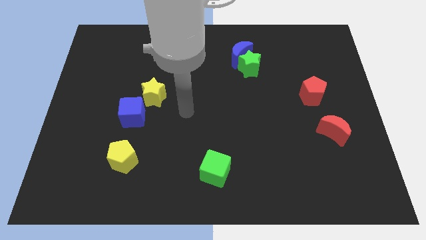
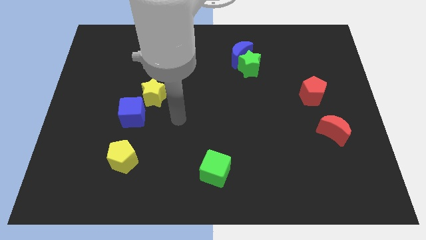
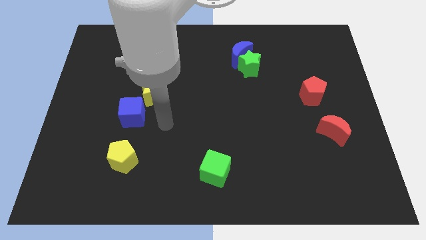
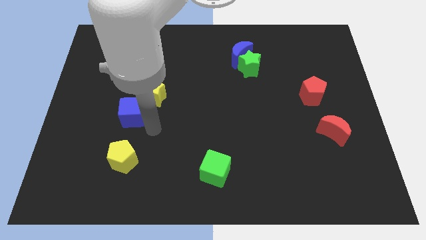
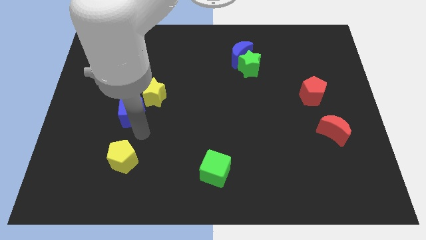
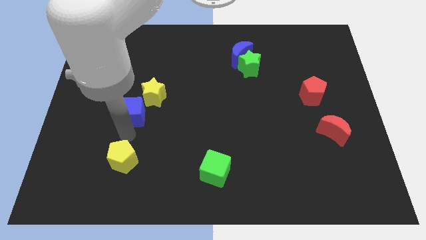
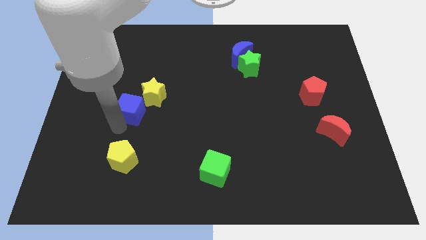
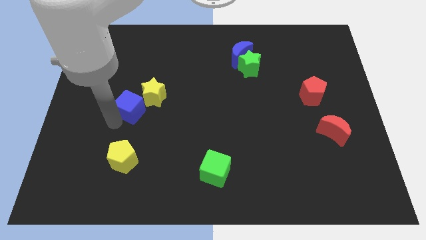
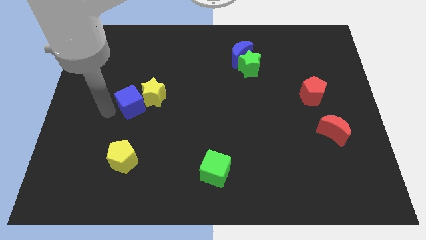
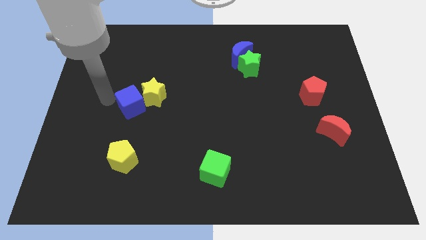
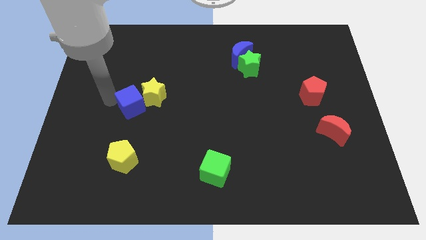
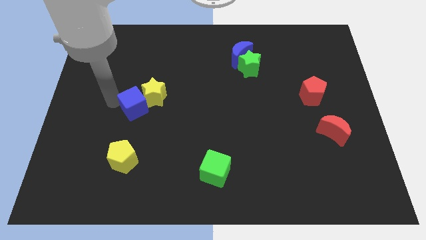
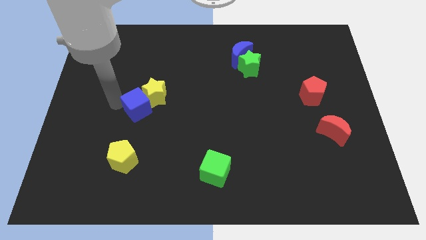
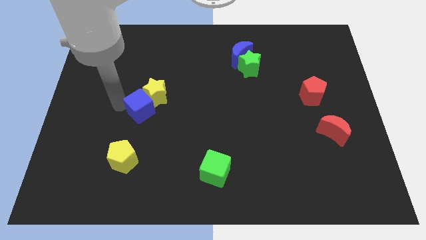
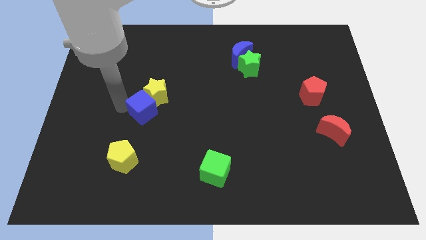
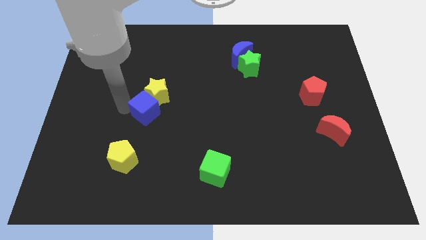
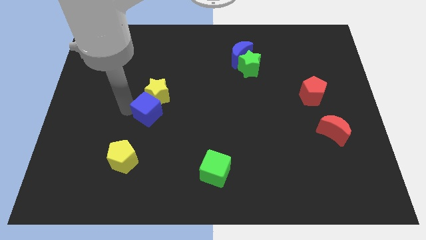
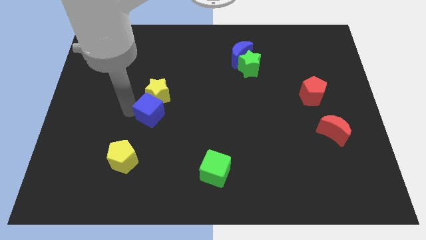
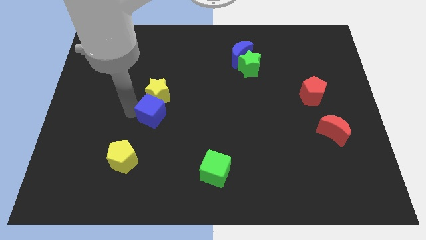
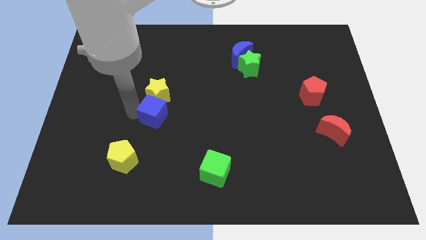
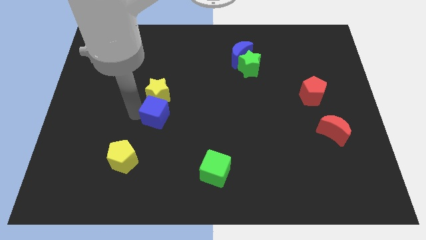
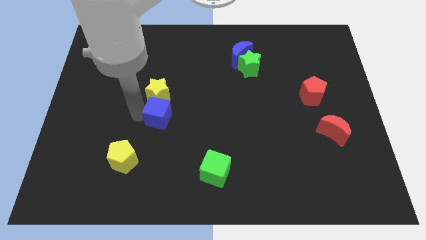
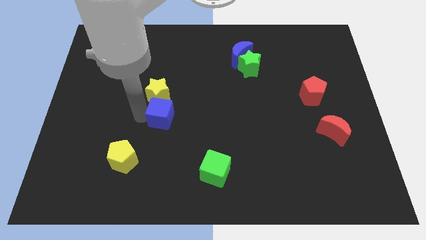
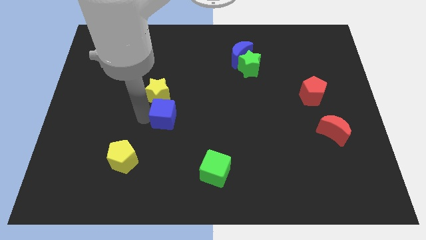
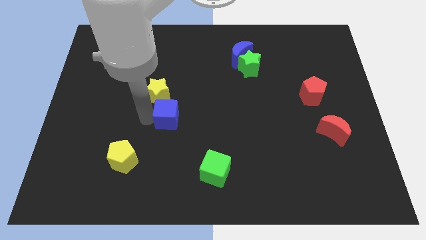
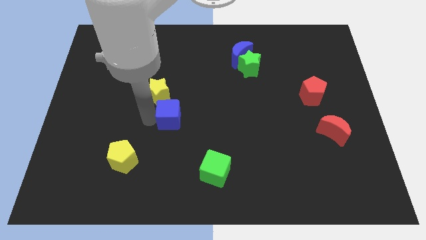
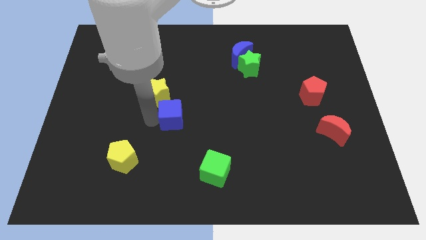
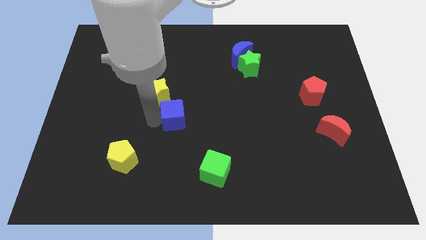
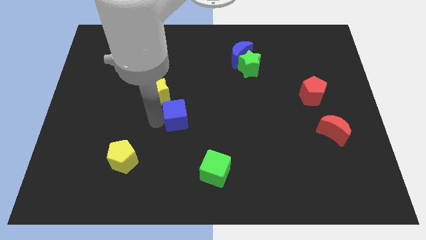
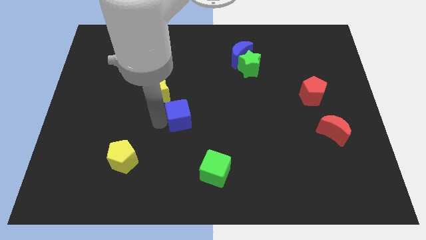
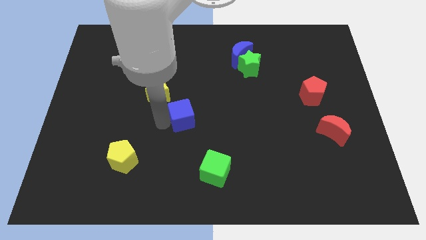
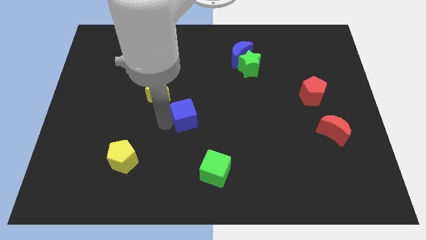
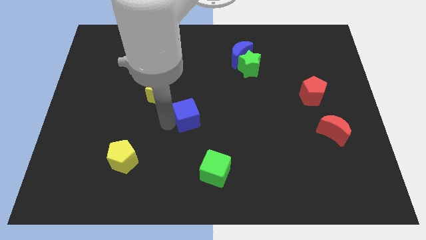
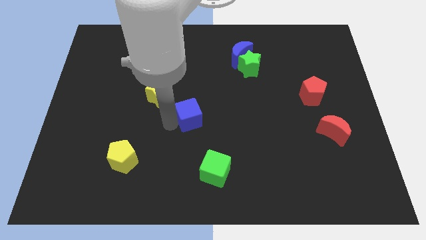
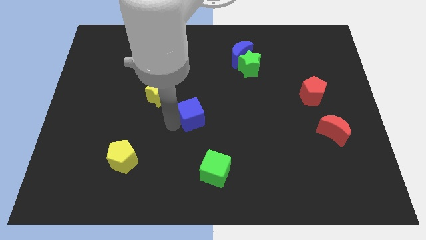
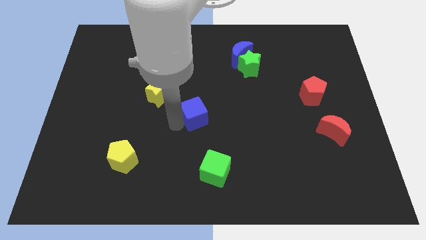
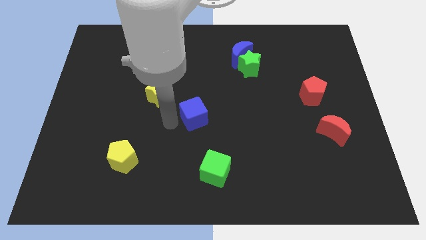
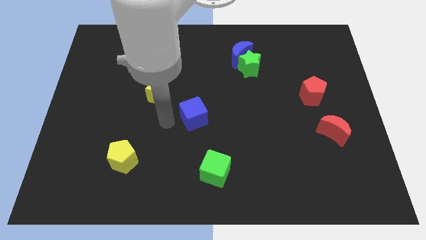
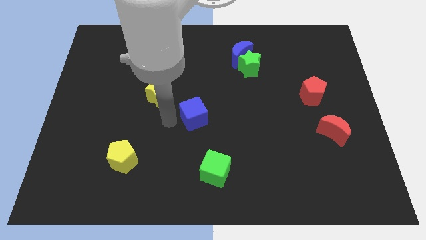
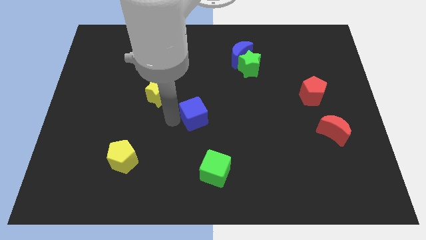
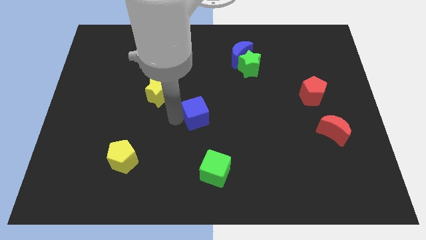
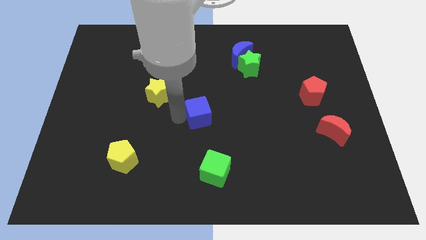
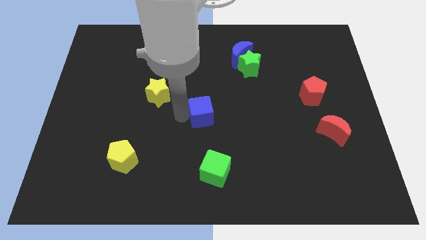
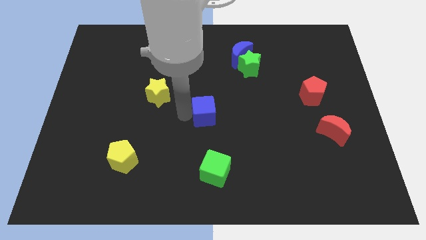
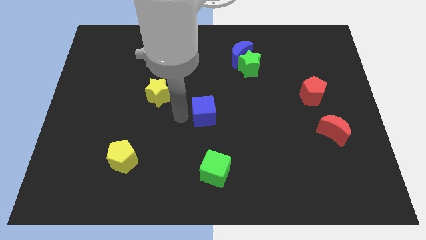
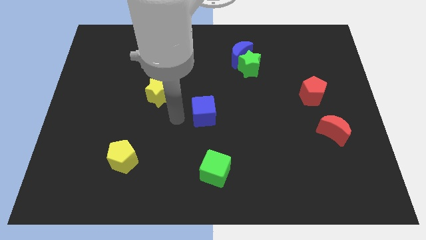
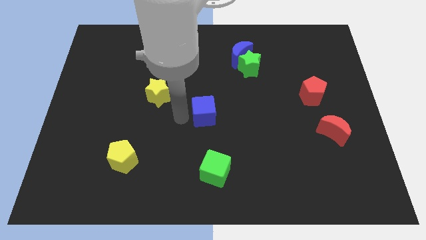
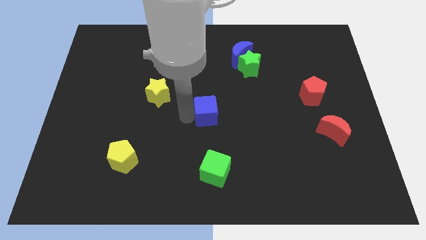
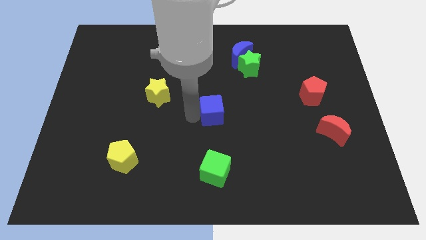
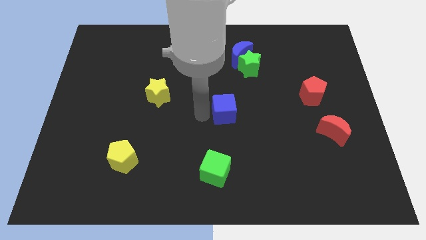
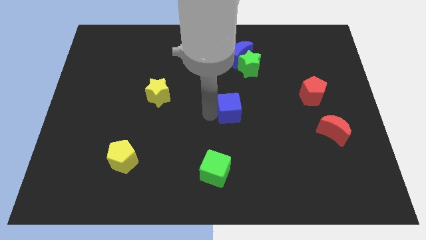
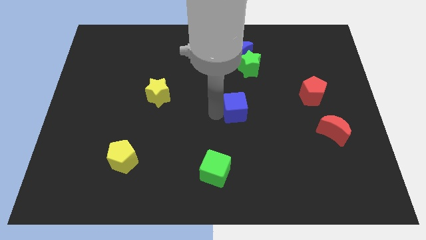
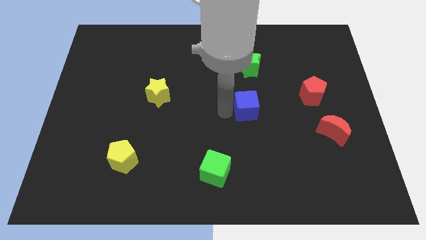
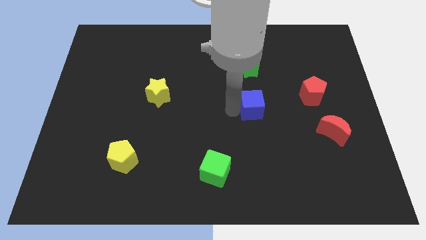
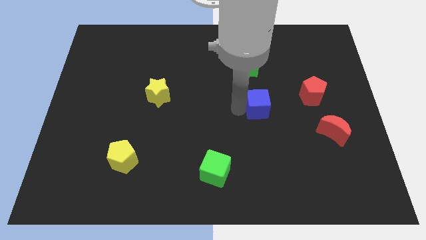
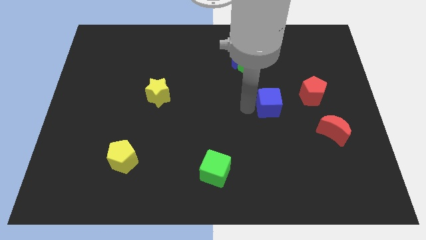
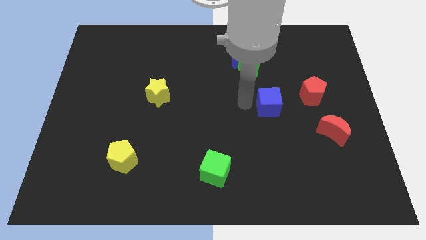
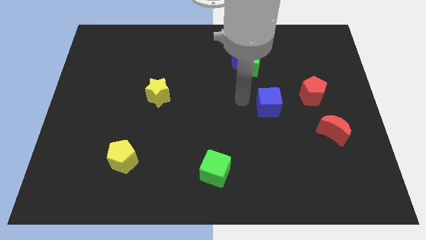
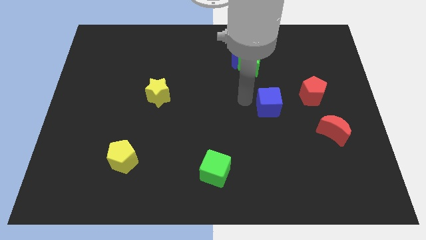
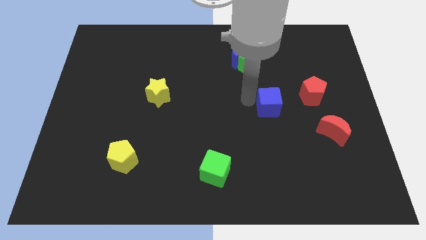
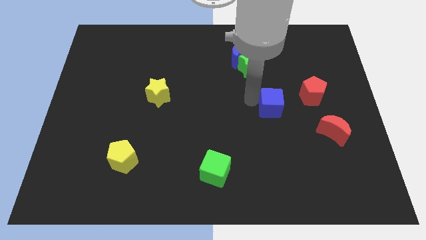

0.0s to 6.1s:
slide the blue cube to the bottom left side of the red pentagon

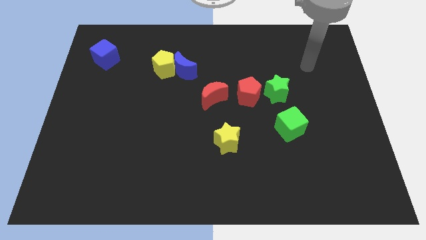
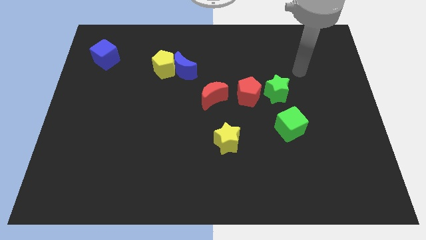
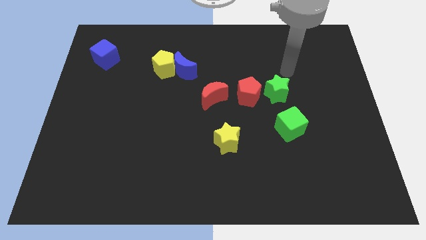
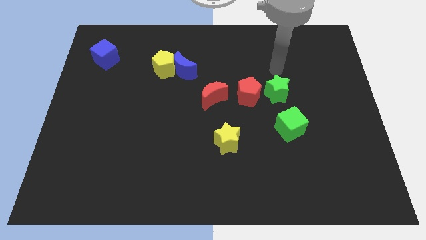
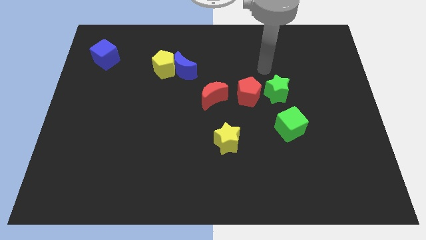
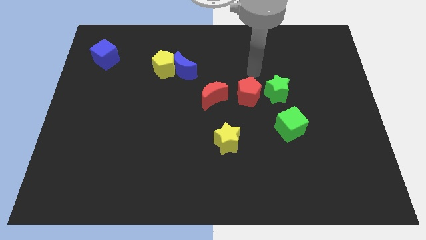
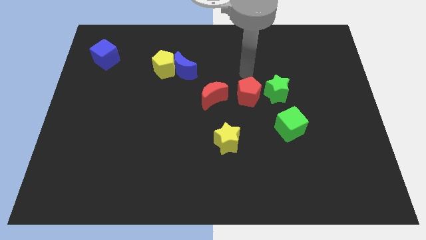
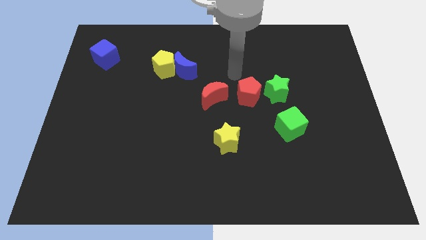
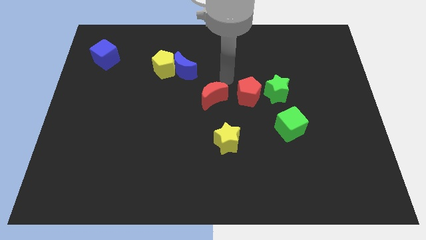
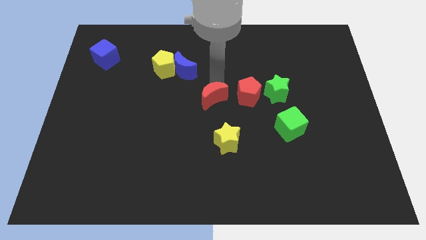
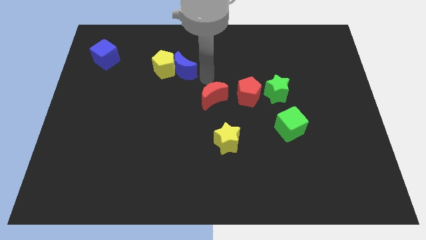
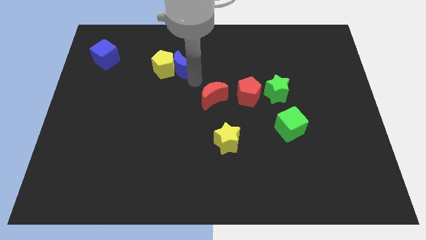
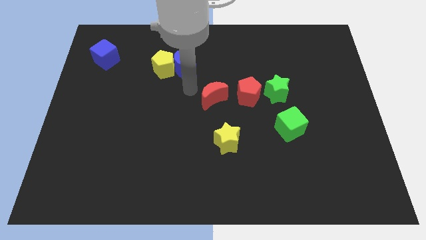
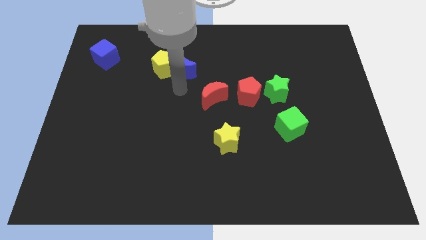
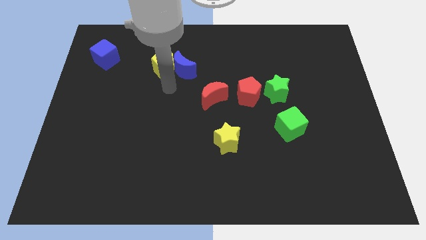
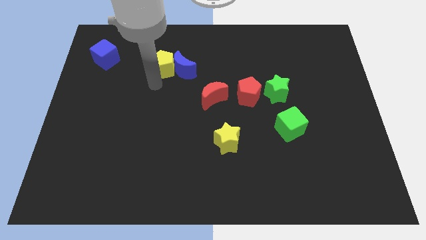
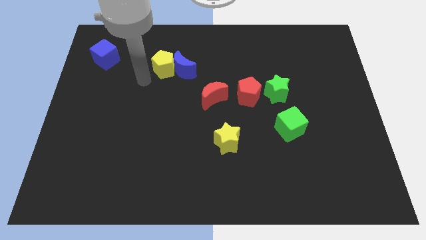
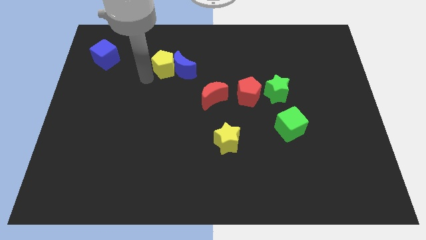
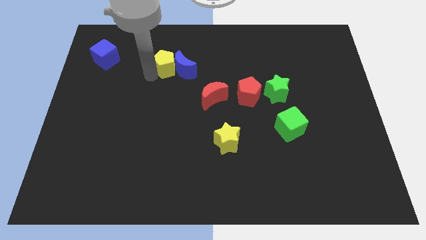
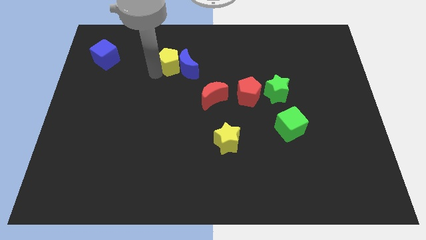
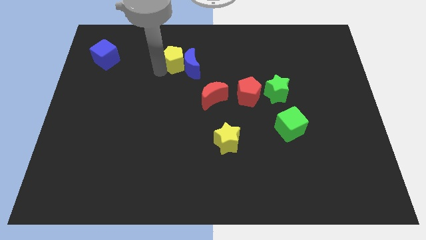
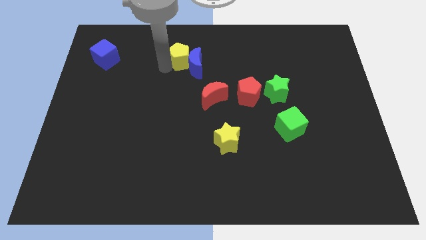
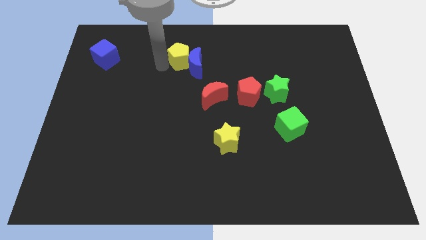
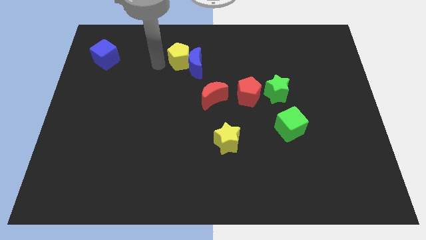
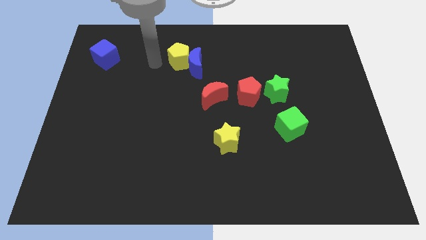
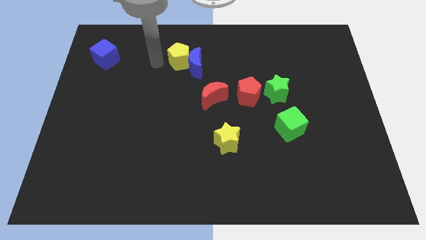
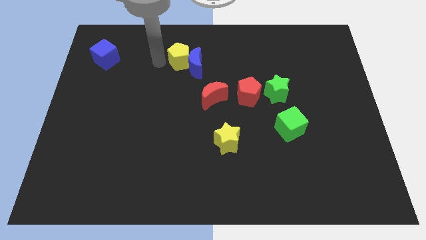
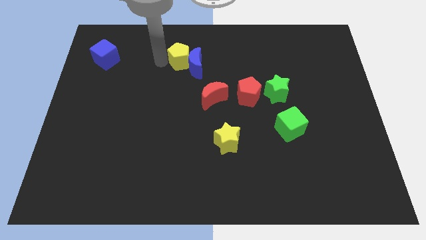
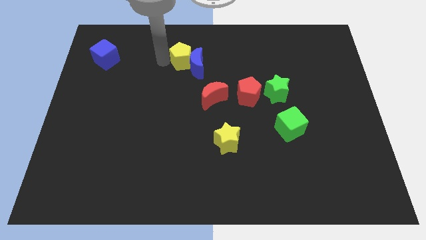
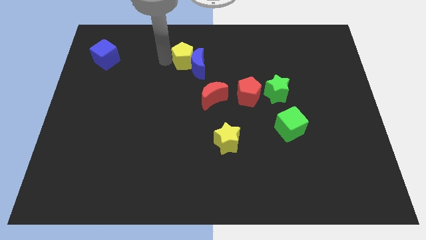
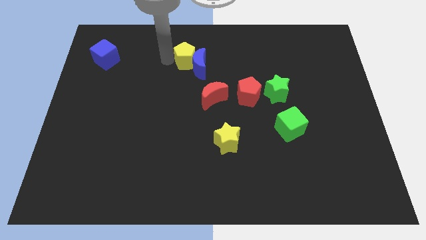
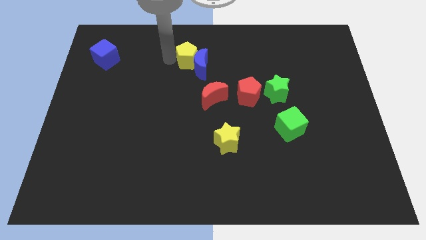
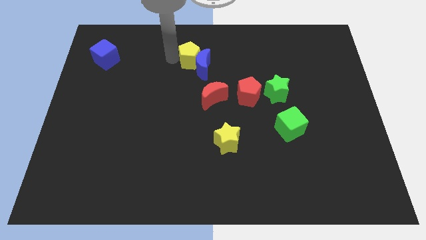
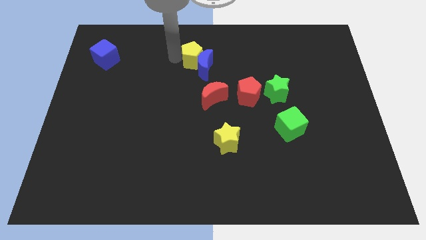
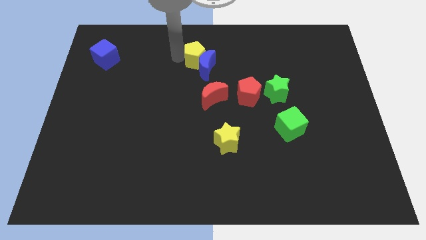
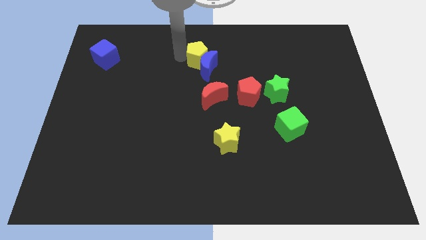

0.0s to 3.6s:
put the yellow pentagon above the red moon
